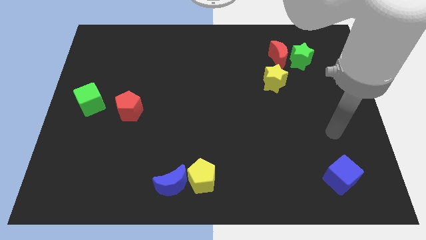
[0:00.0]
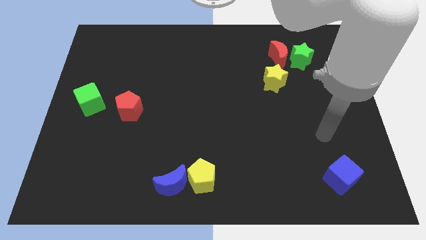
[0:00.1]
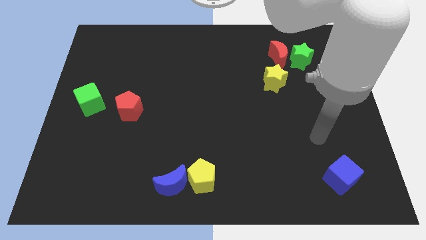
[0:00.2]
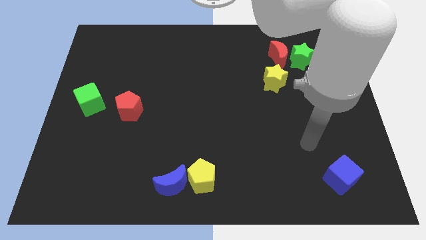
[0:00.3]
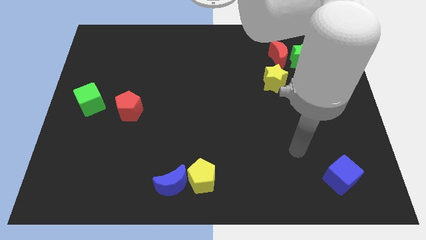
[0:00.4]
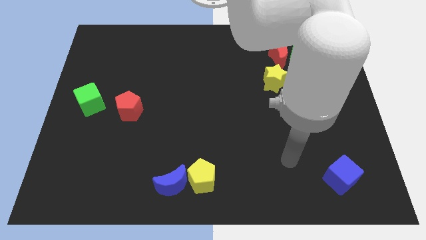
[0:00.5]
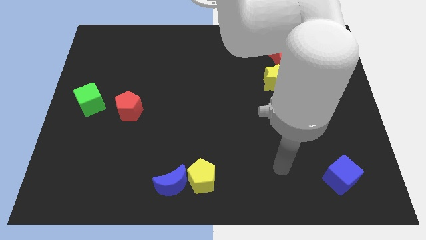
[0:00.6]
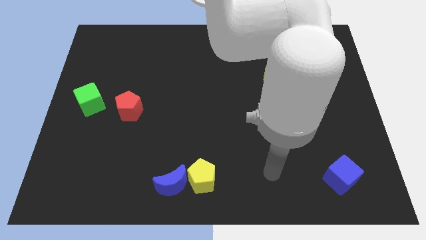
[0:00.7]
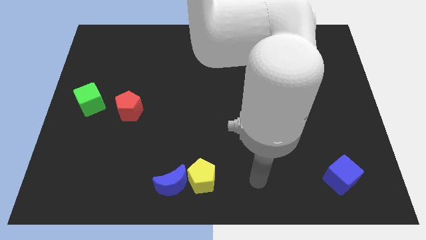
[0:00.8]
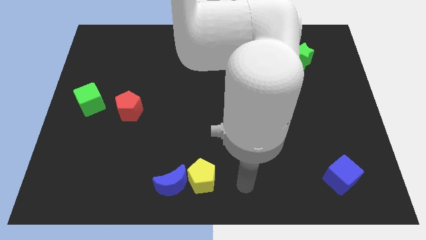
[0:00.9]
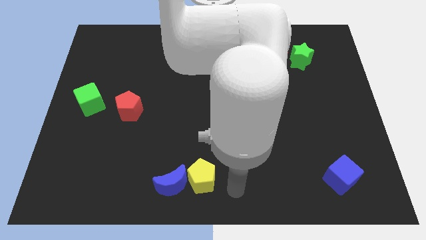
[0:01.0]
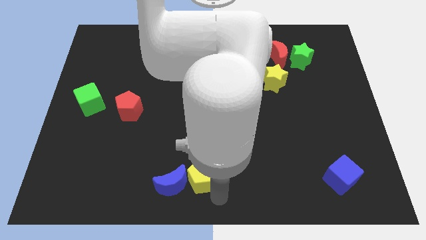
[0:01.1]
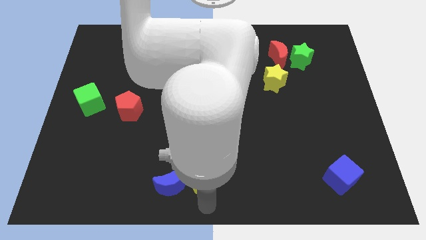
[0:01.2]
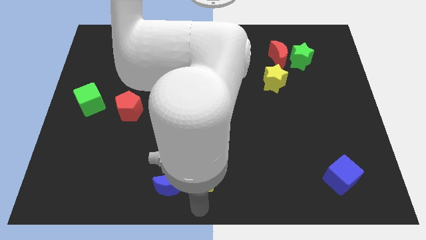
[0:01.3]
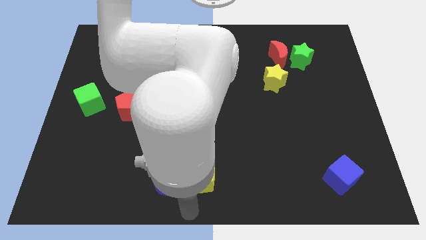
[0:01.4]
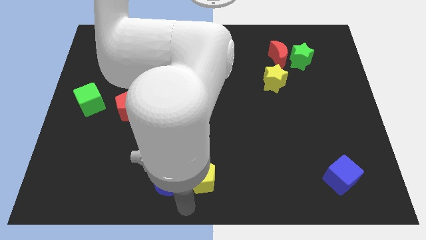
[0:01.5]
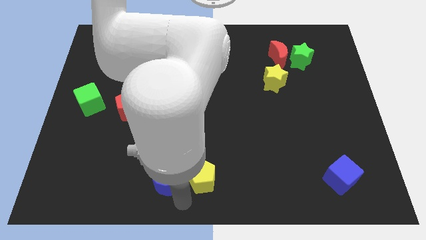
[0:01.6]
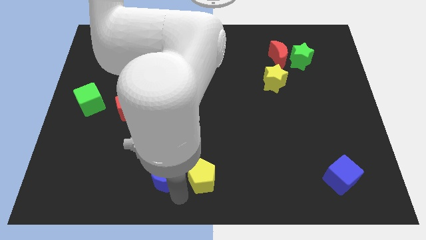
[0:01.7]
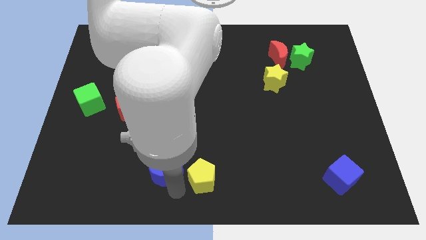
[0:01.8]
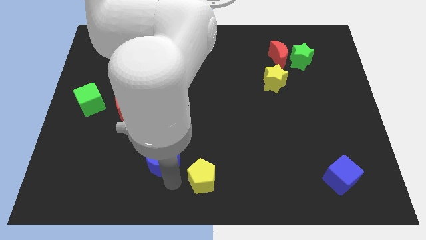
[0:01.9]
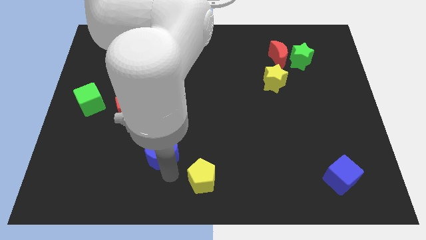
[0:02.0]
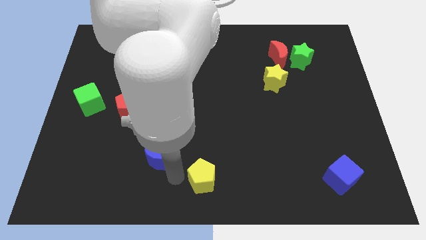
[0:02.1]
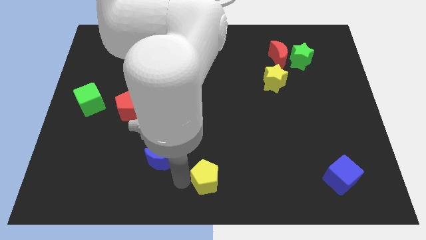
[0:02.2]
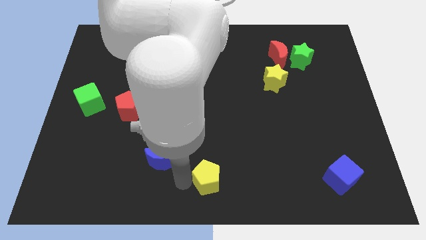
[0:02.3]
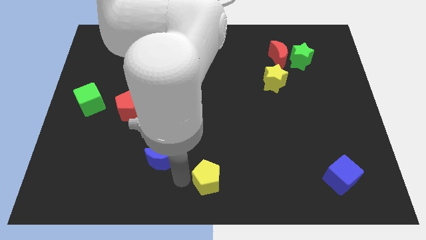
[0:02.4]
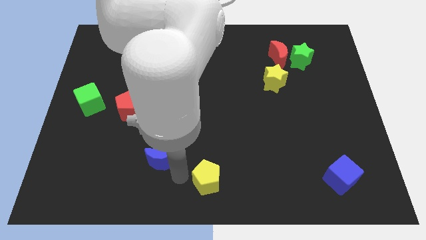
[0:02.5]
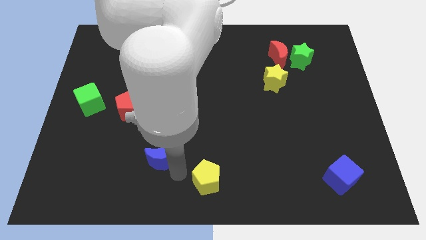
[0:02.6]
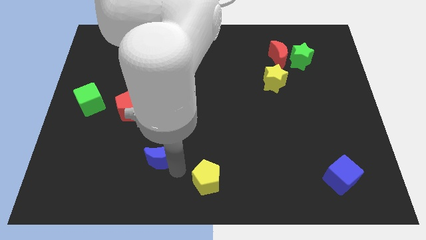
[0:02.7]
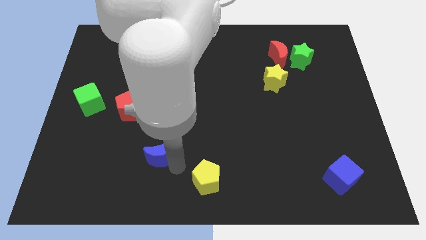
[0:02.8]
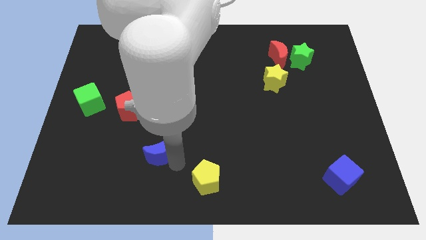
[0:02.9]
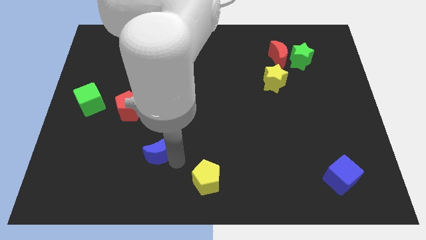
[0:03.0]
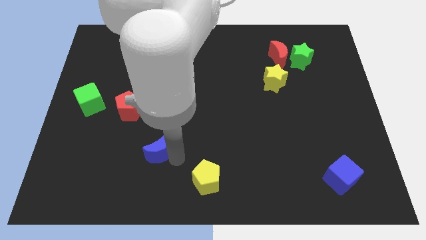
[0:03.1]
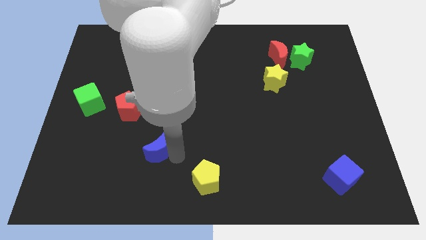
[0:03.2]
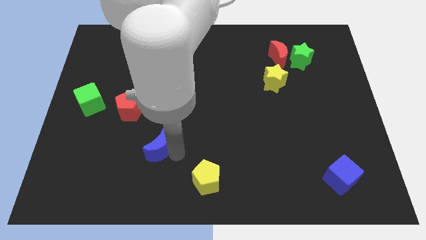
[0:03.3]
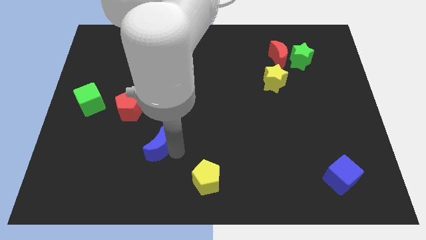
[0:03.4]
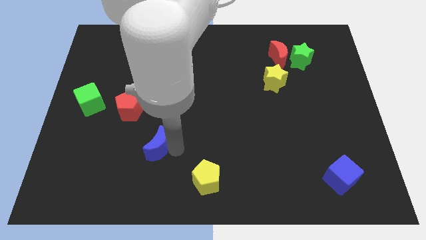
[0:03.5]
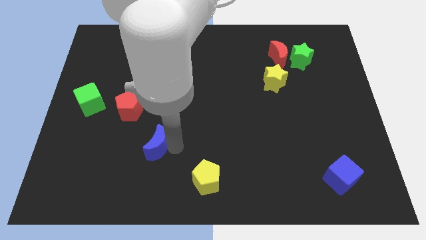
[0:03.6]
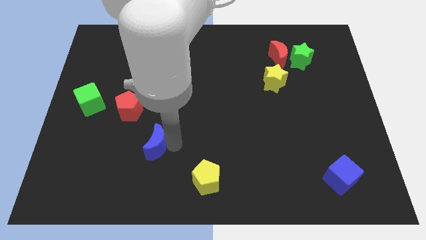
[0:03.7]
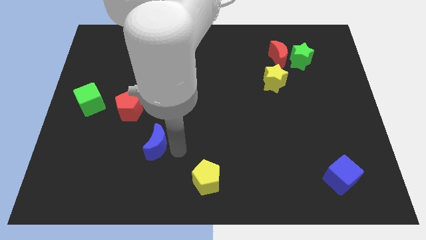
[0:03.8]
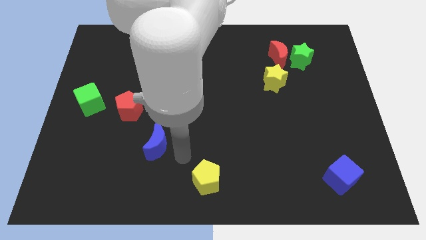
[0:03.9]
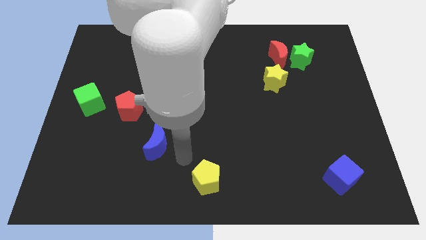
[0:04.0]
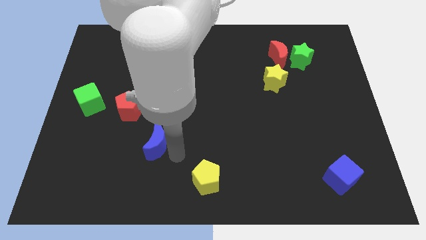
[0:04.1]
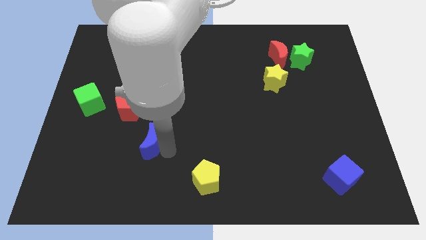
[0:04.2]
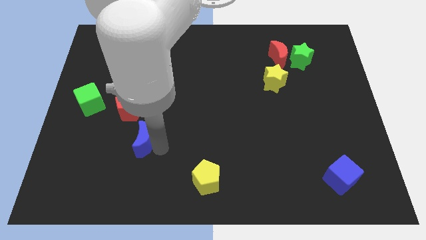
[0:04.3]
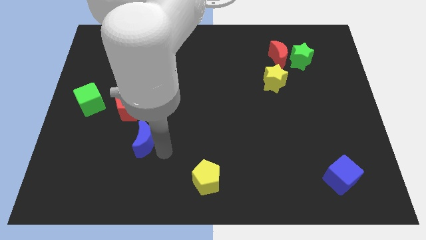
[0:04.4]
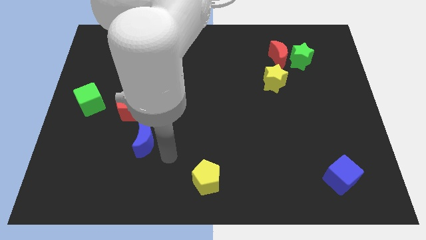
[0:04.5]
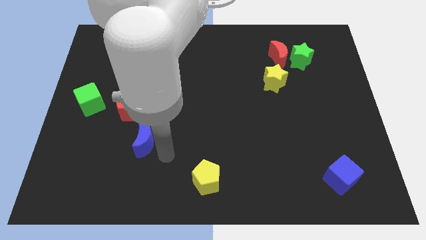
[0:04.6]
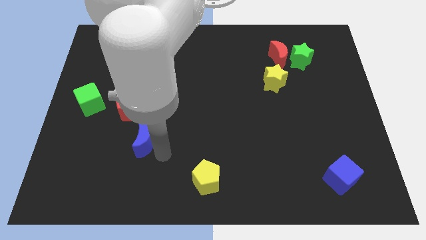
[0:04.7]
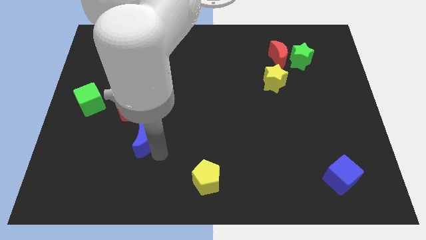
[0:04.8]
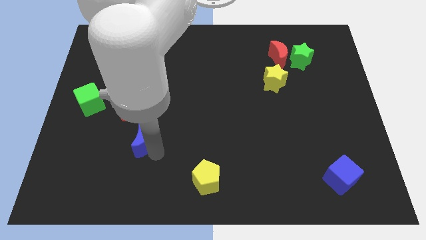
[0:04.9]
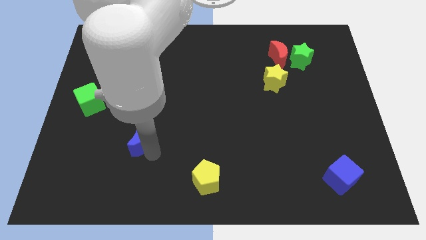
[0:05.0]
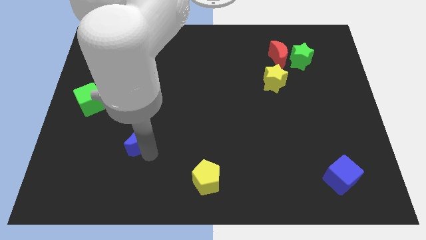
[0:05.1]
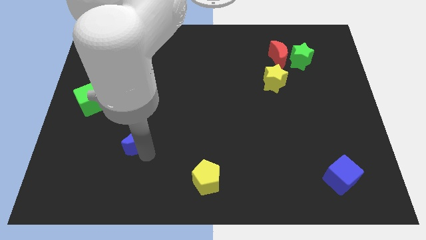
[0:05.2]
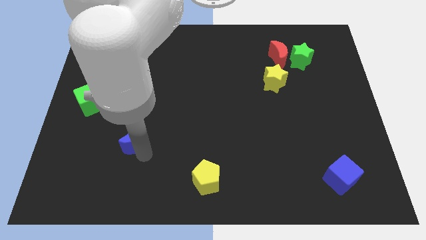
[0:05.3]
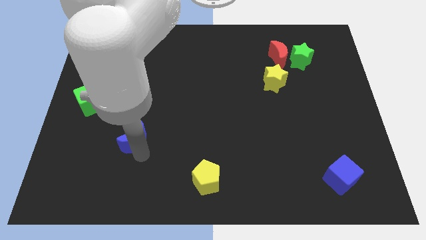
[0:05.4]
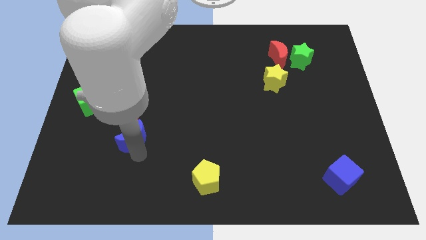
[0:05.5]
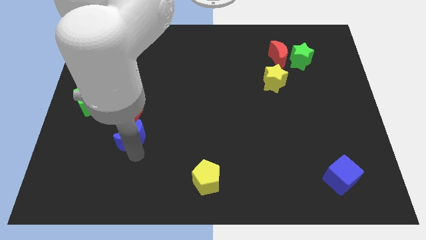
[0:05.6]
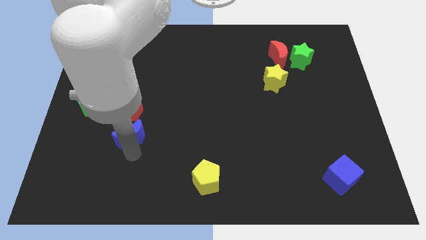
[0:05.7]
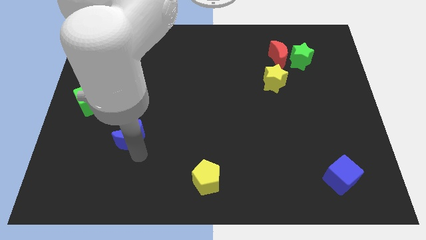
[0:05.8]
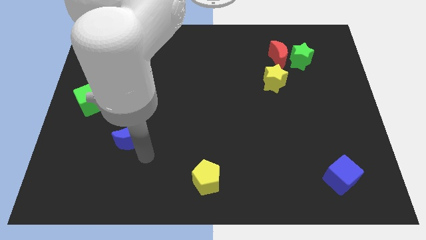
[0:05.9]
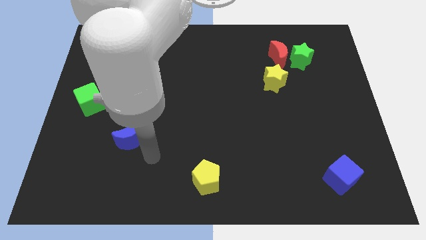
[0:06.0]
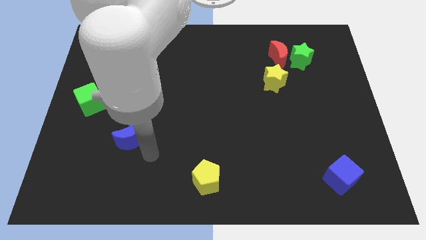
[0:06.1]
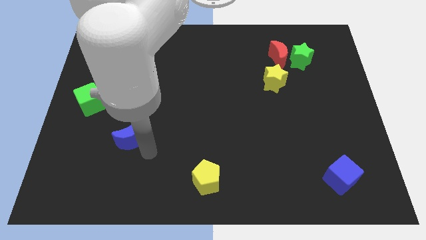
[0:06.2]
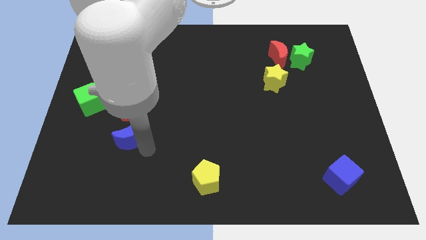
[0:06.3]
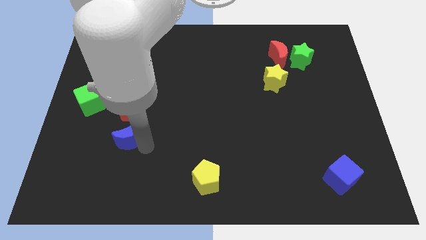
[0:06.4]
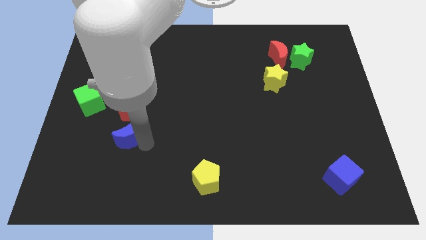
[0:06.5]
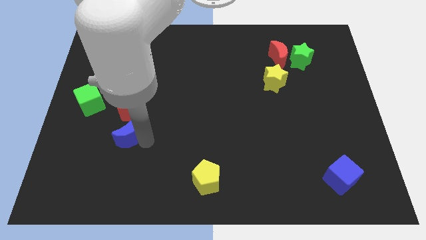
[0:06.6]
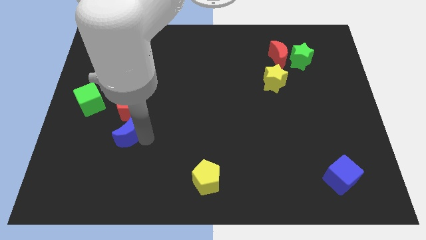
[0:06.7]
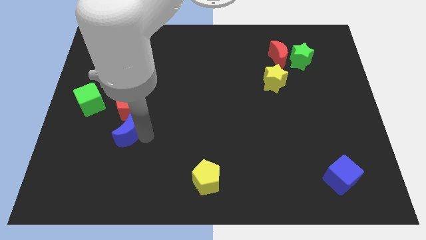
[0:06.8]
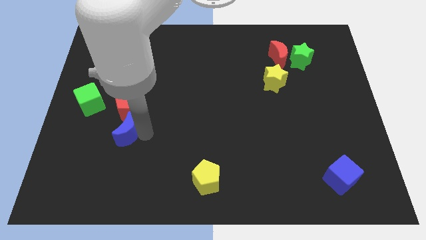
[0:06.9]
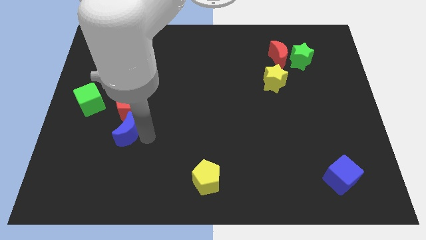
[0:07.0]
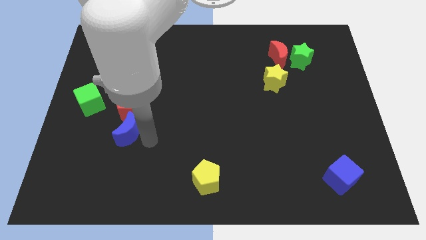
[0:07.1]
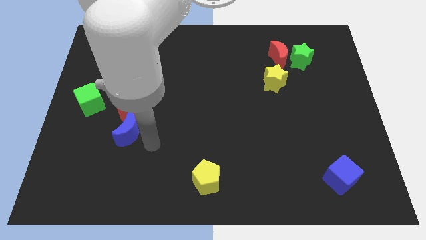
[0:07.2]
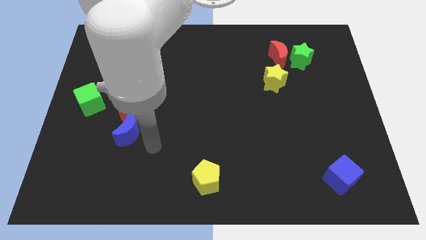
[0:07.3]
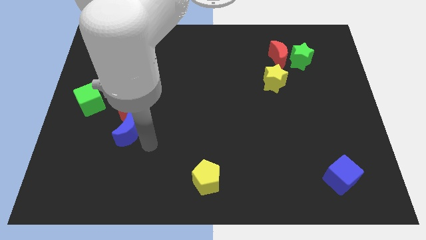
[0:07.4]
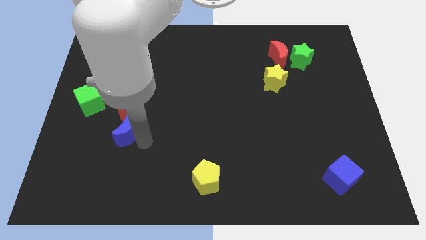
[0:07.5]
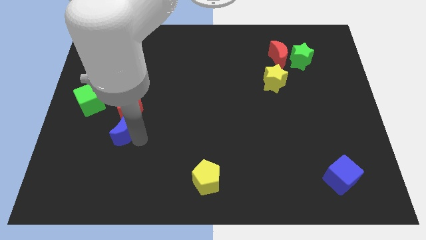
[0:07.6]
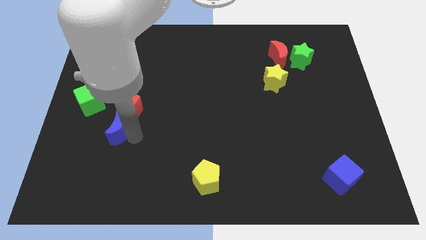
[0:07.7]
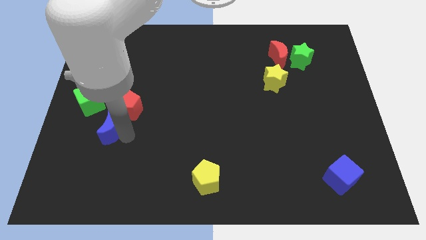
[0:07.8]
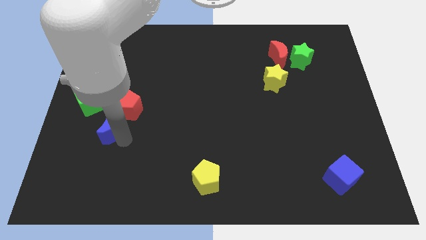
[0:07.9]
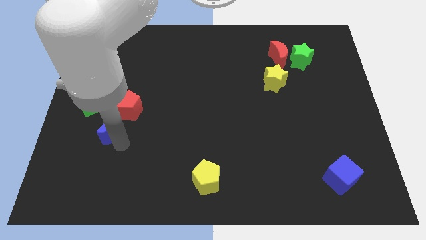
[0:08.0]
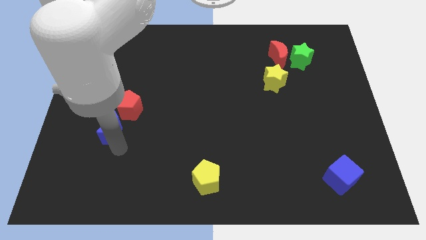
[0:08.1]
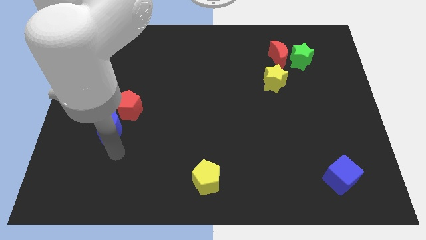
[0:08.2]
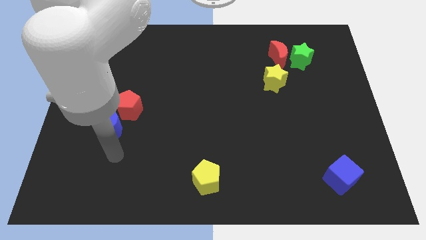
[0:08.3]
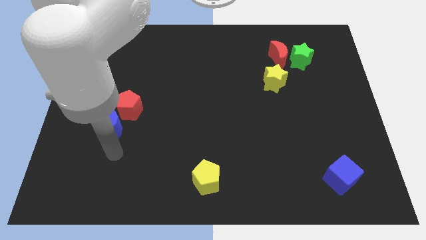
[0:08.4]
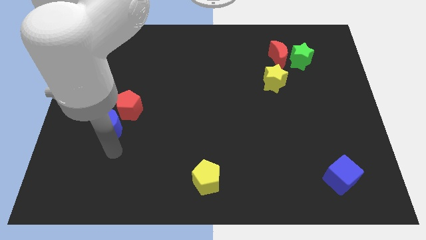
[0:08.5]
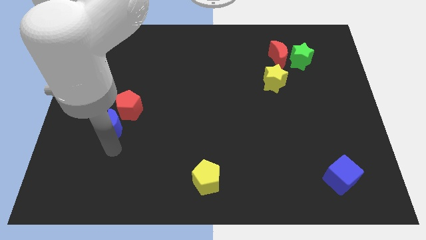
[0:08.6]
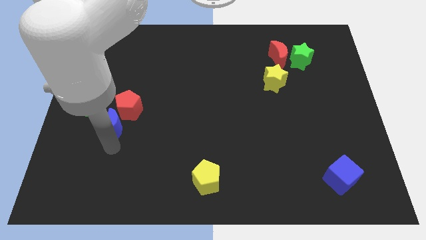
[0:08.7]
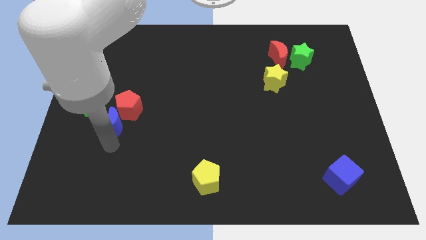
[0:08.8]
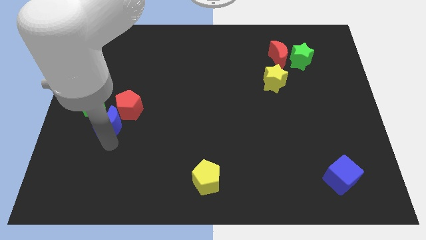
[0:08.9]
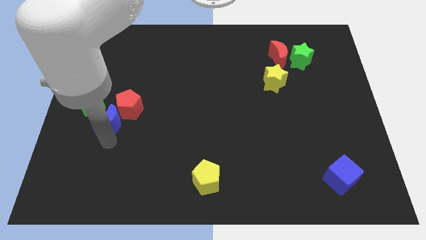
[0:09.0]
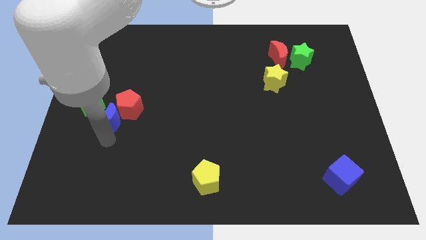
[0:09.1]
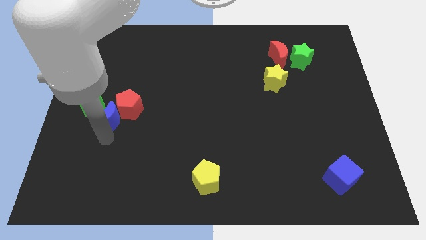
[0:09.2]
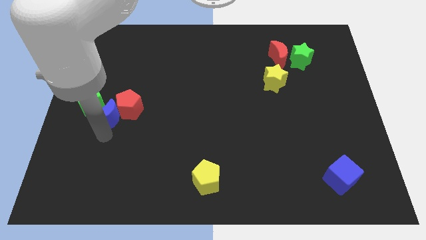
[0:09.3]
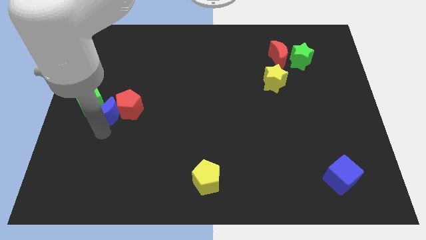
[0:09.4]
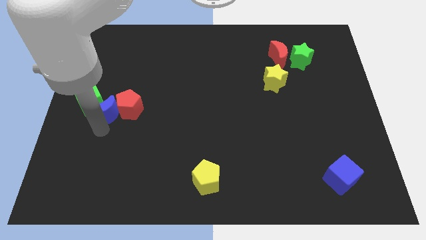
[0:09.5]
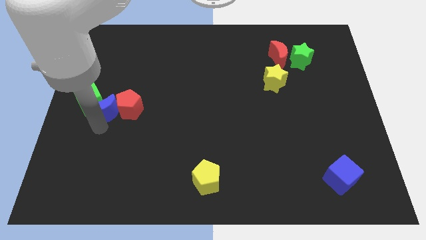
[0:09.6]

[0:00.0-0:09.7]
slide the blue moon to the top left side of the red pentagon
